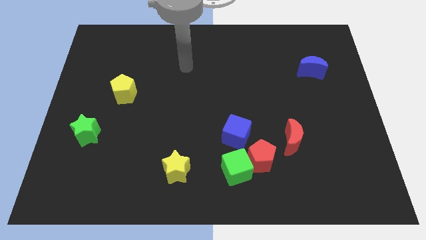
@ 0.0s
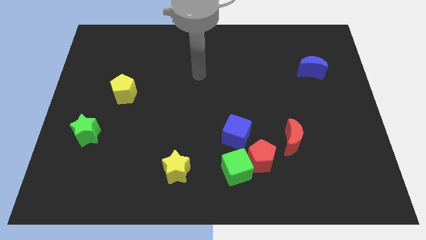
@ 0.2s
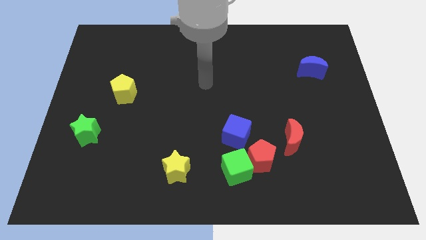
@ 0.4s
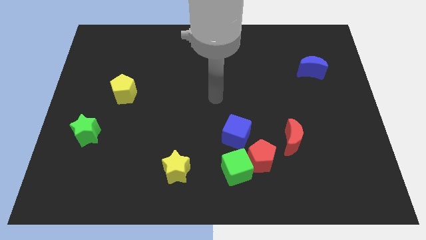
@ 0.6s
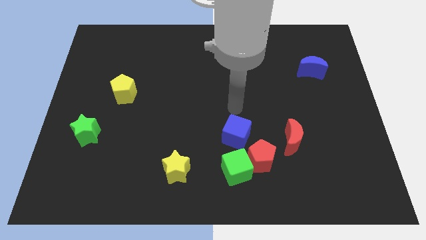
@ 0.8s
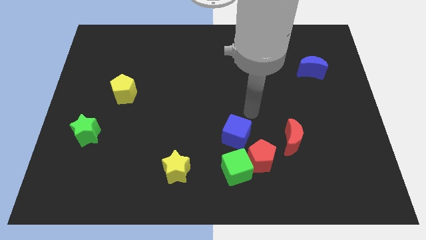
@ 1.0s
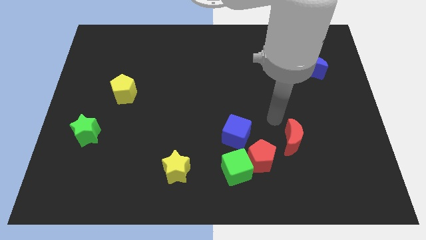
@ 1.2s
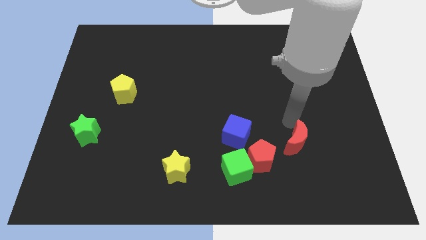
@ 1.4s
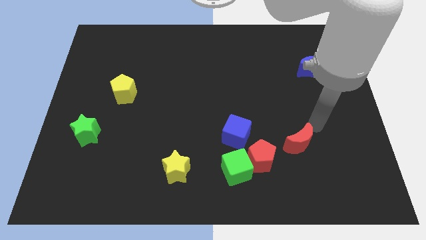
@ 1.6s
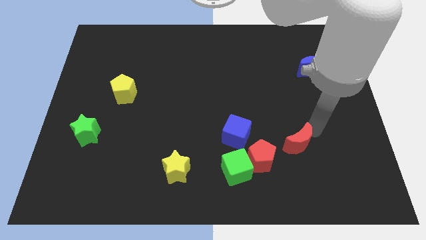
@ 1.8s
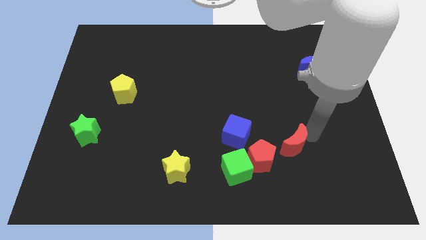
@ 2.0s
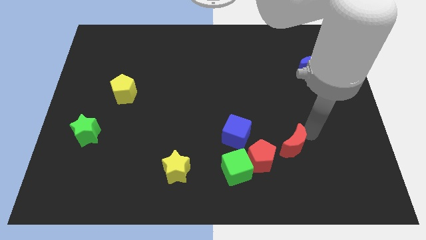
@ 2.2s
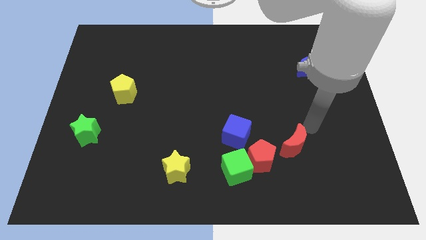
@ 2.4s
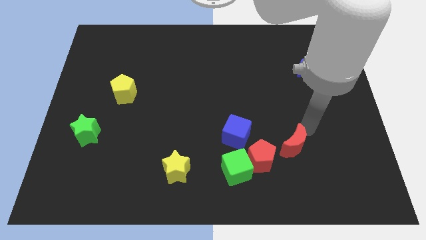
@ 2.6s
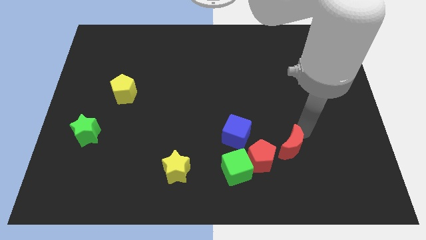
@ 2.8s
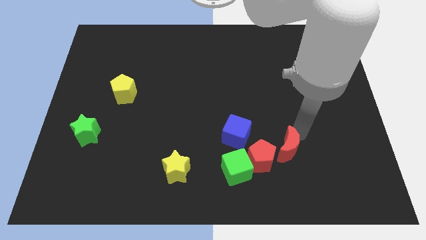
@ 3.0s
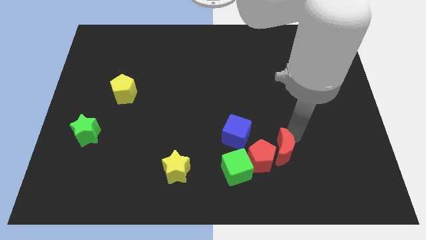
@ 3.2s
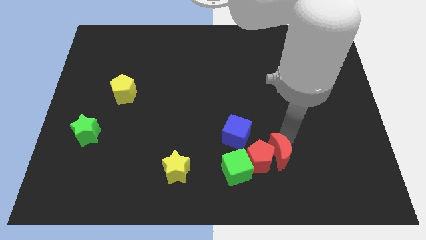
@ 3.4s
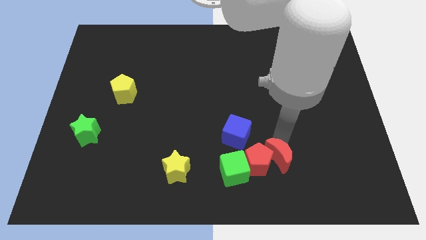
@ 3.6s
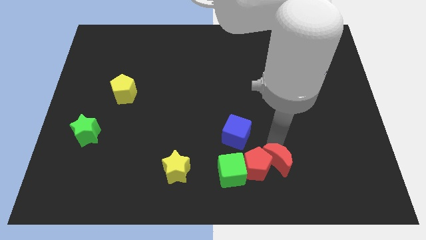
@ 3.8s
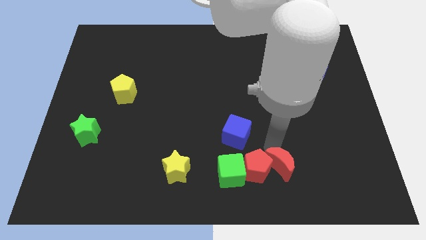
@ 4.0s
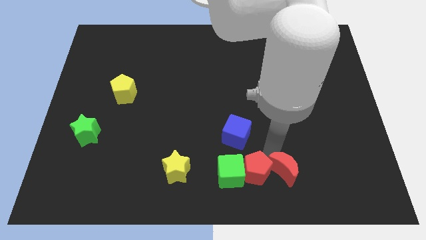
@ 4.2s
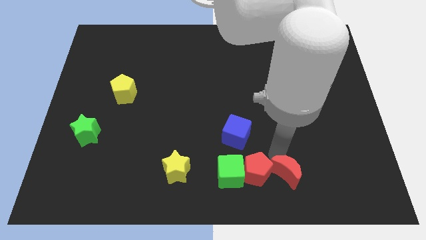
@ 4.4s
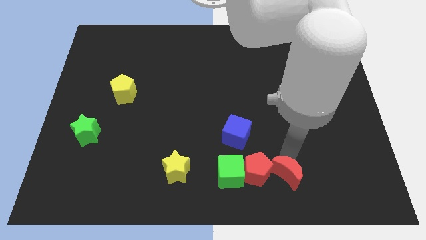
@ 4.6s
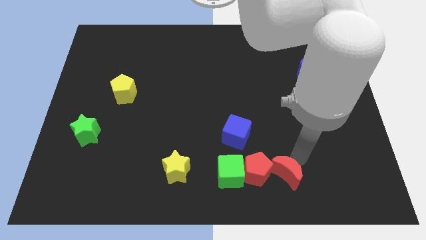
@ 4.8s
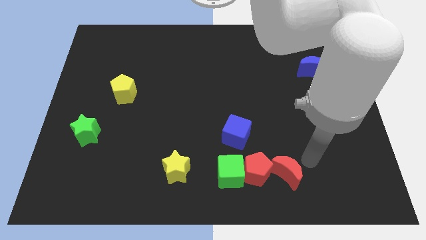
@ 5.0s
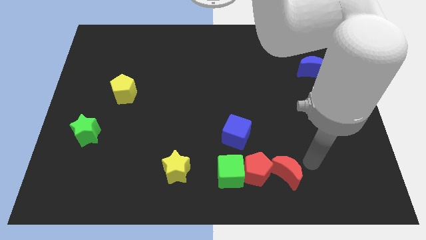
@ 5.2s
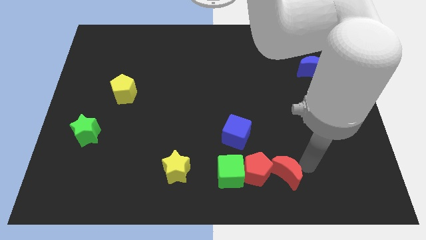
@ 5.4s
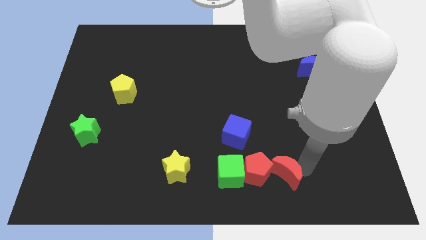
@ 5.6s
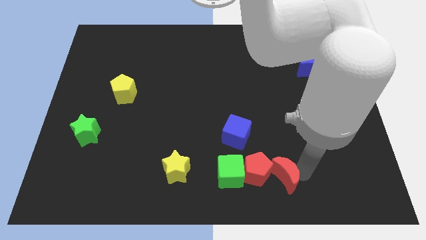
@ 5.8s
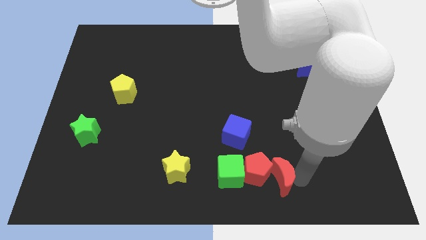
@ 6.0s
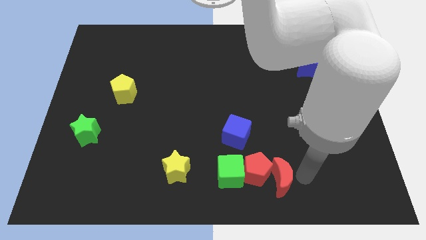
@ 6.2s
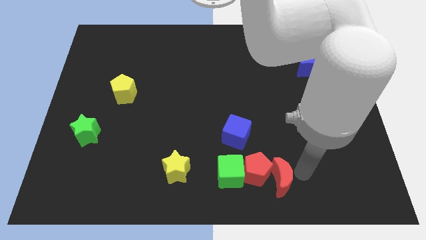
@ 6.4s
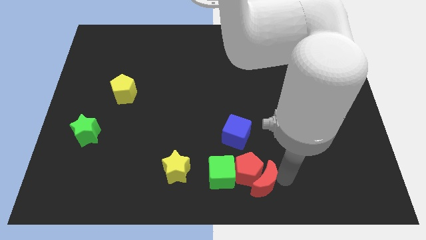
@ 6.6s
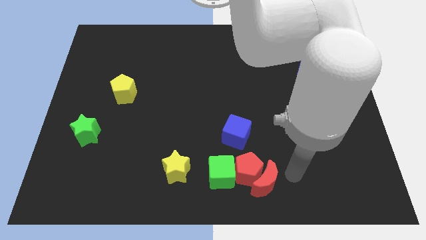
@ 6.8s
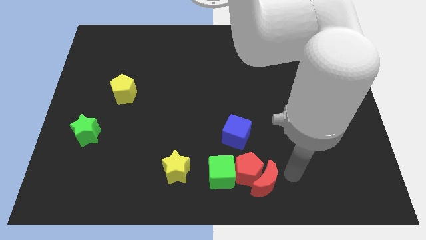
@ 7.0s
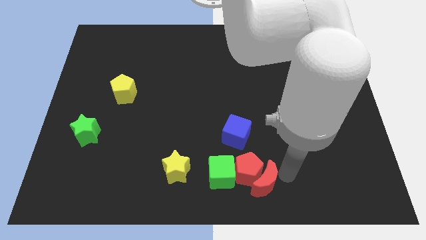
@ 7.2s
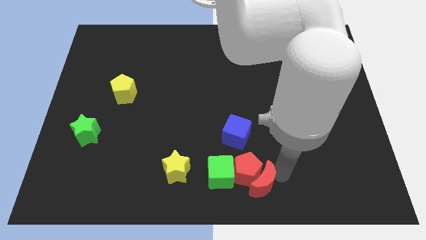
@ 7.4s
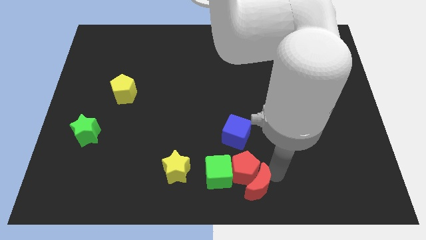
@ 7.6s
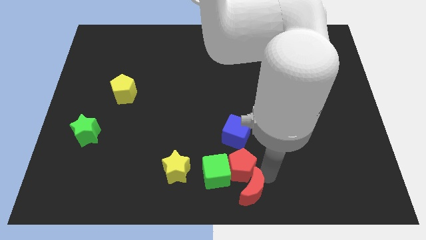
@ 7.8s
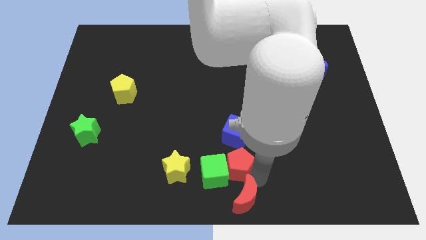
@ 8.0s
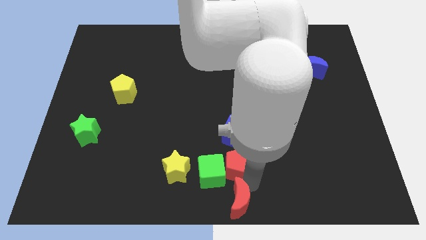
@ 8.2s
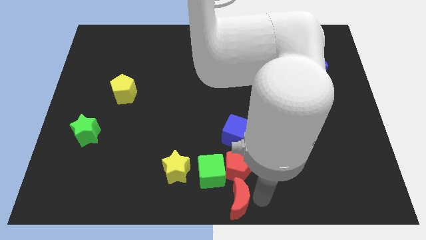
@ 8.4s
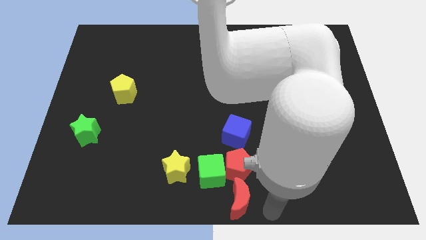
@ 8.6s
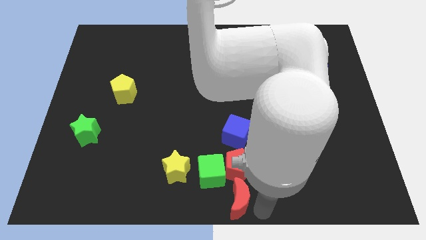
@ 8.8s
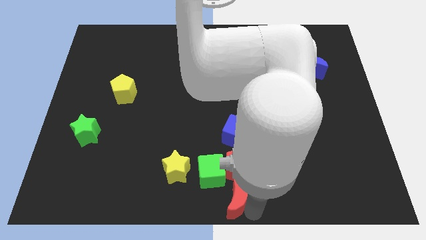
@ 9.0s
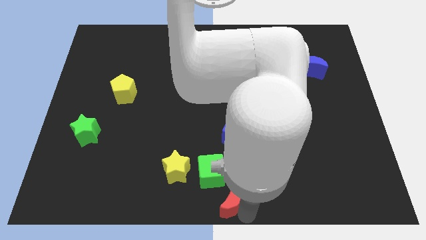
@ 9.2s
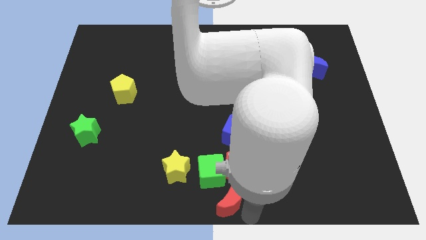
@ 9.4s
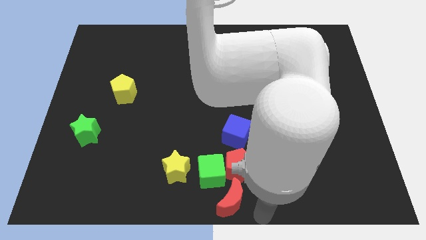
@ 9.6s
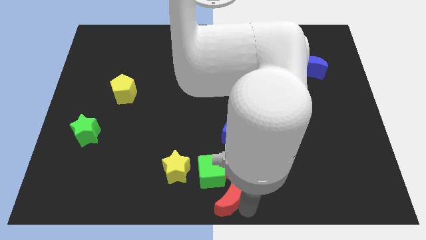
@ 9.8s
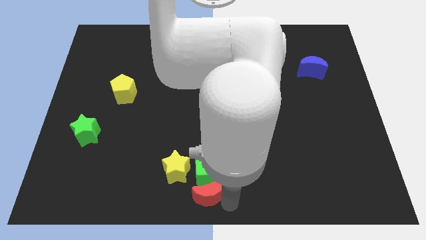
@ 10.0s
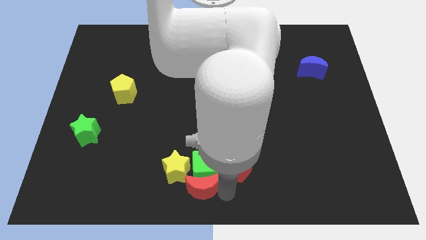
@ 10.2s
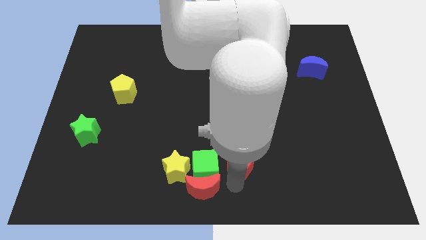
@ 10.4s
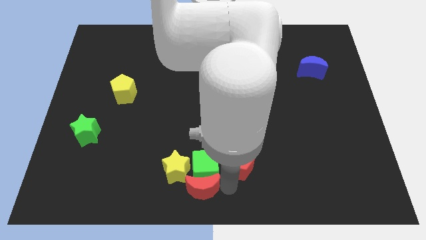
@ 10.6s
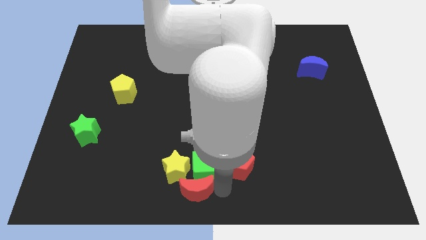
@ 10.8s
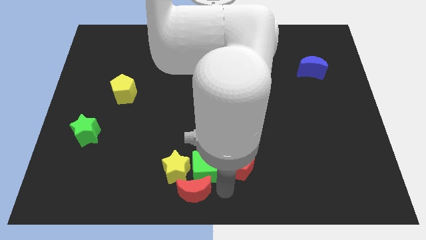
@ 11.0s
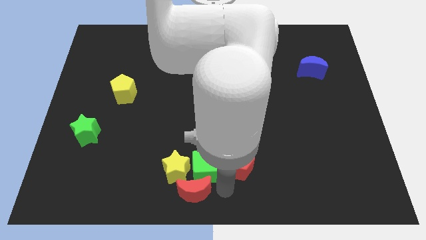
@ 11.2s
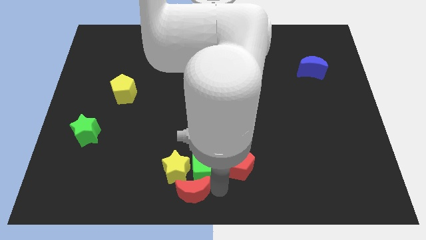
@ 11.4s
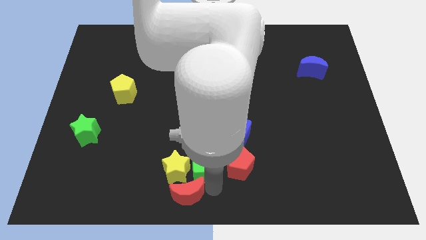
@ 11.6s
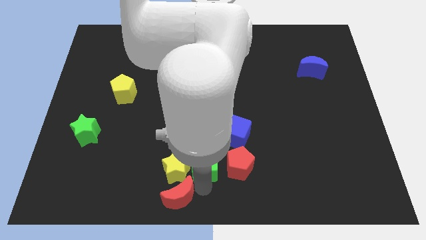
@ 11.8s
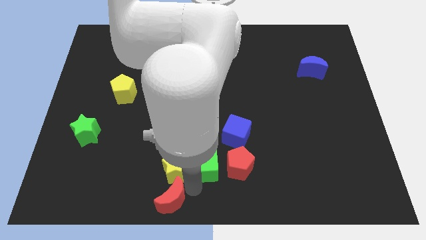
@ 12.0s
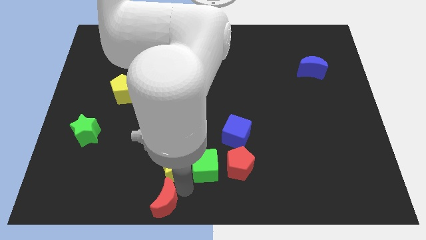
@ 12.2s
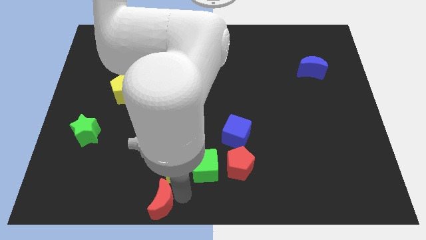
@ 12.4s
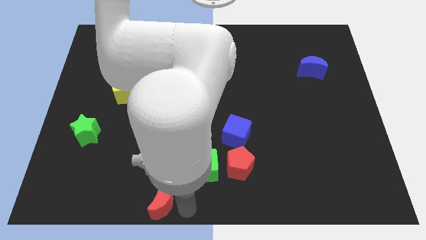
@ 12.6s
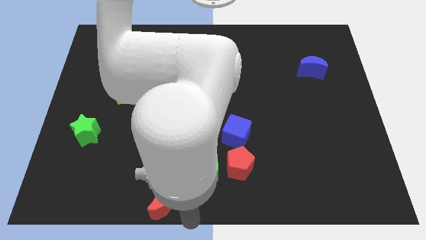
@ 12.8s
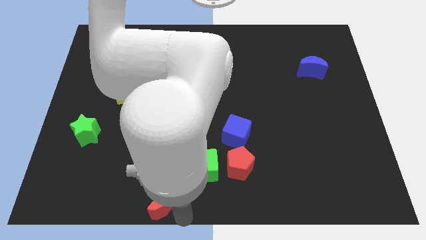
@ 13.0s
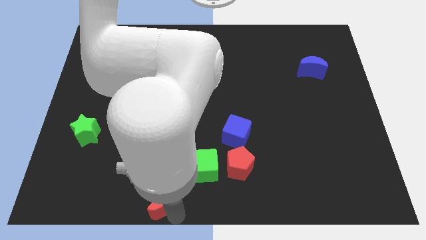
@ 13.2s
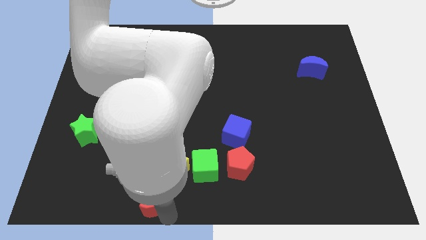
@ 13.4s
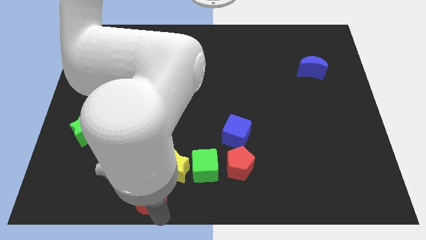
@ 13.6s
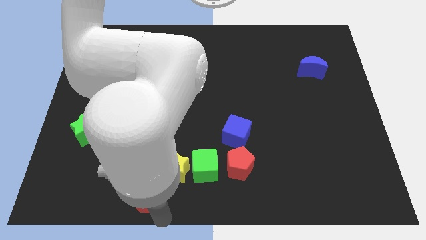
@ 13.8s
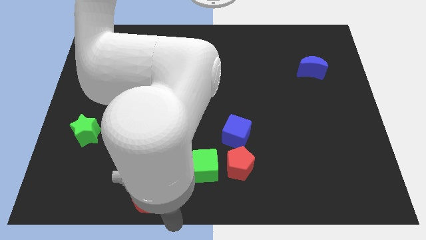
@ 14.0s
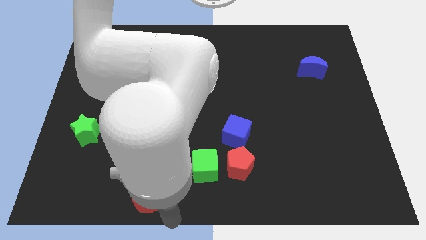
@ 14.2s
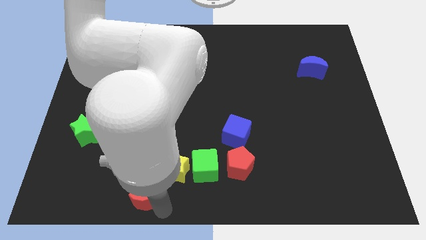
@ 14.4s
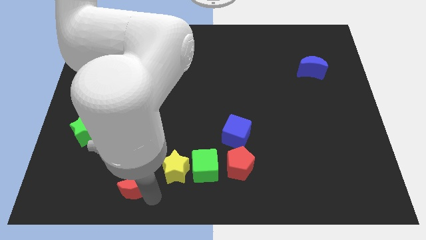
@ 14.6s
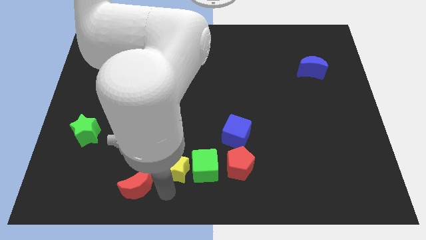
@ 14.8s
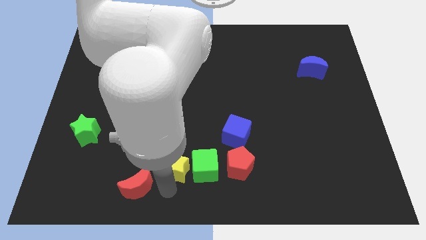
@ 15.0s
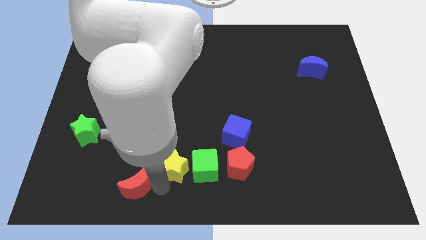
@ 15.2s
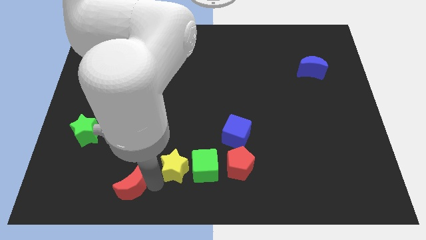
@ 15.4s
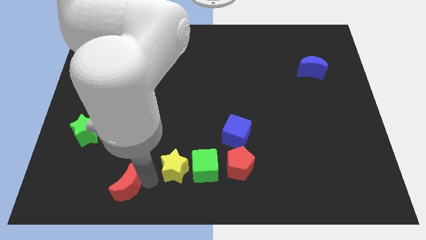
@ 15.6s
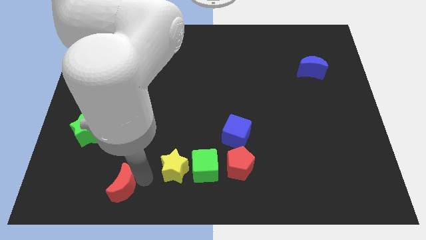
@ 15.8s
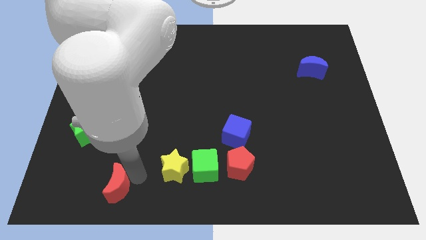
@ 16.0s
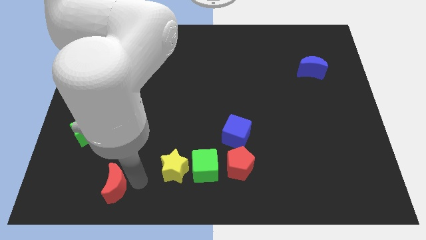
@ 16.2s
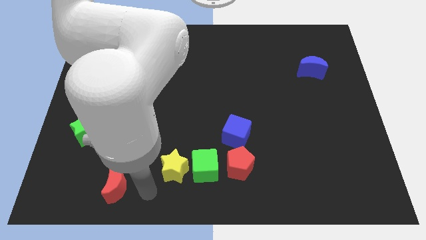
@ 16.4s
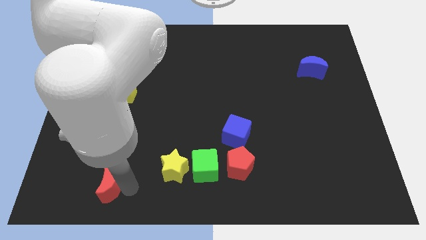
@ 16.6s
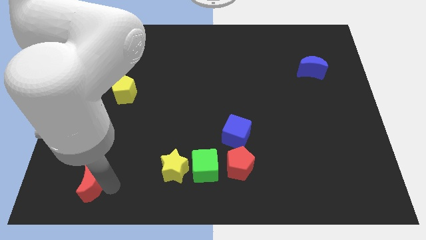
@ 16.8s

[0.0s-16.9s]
put the red moon to the bottom side of the green star
